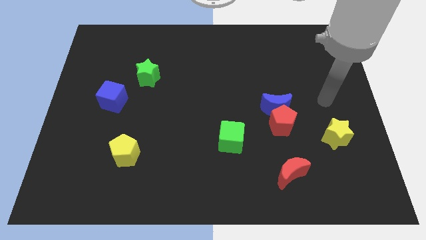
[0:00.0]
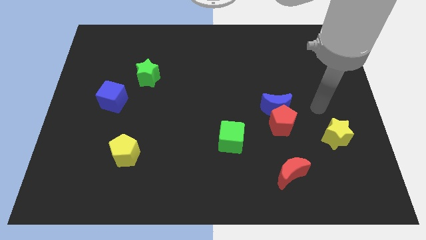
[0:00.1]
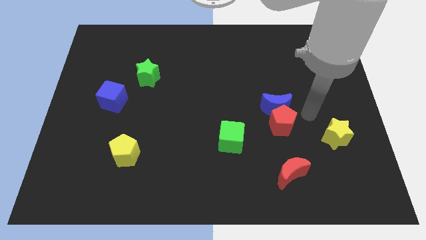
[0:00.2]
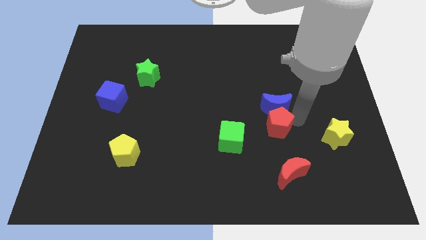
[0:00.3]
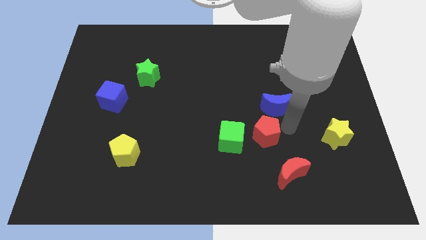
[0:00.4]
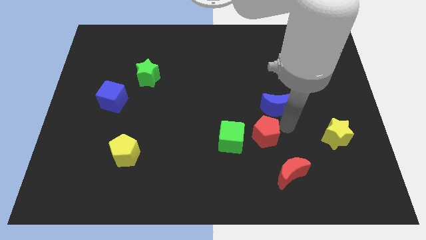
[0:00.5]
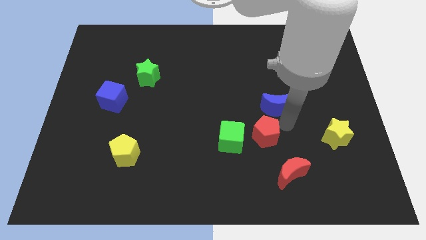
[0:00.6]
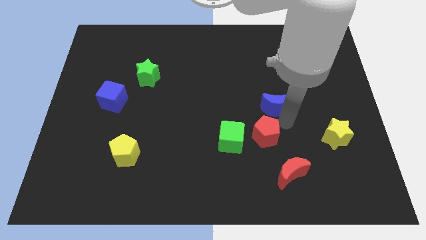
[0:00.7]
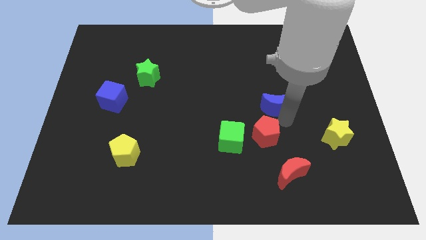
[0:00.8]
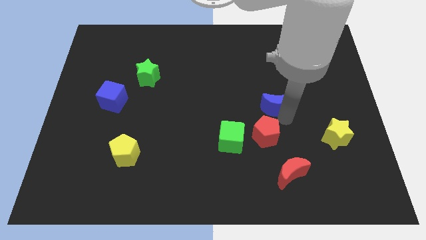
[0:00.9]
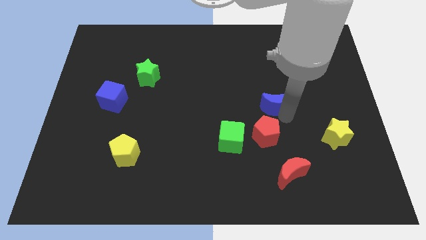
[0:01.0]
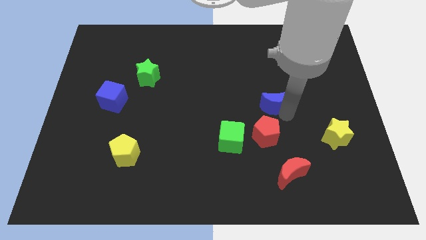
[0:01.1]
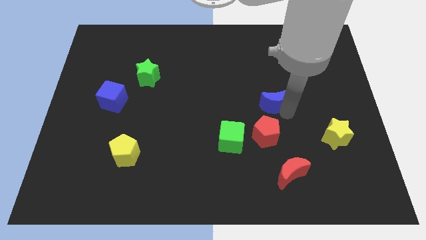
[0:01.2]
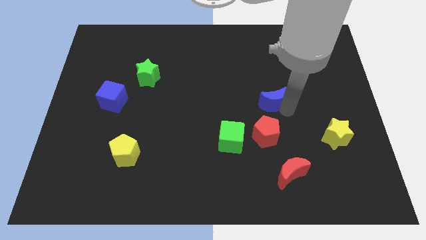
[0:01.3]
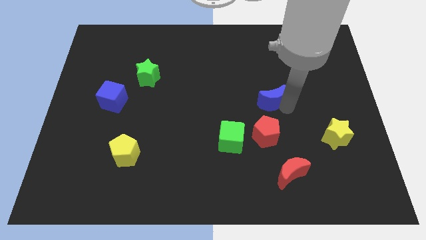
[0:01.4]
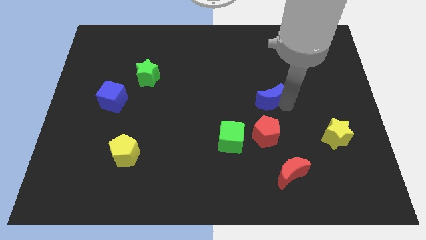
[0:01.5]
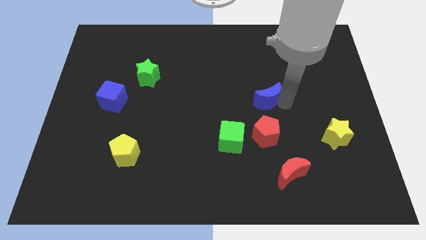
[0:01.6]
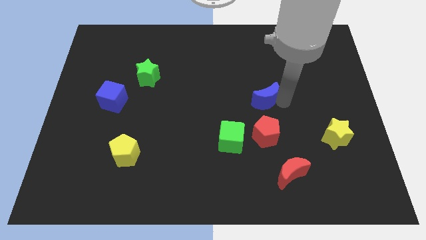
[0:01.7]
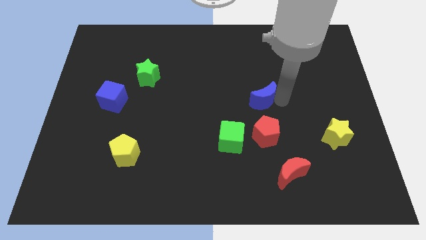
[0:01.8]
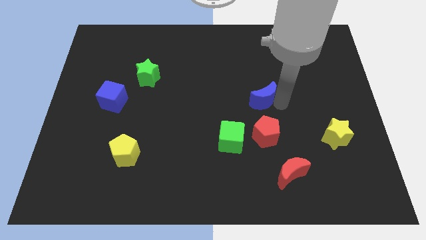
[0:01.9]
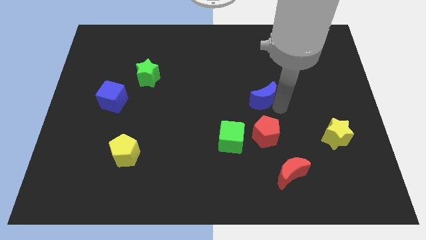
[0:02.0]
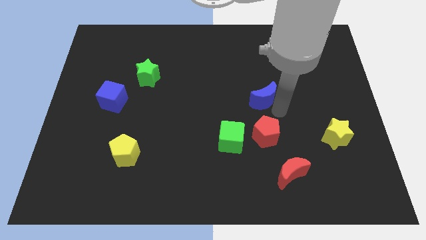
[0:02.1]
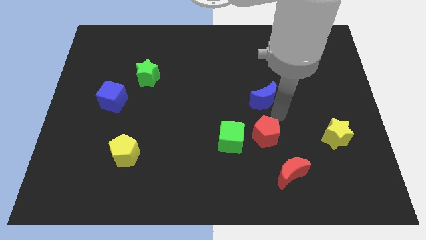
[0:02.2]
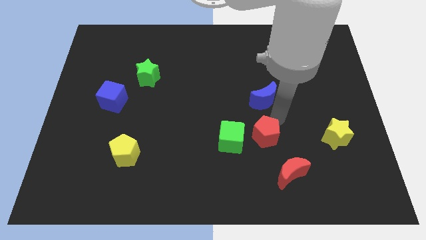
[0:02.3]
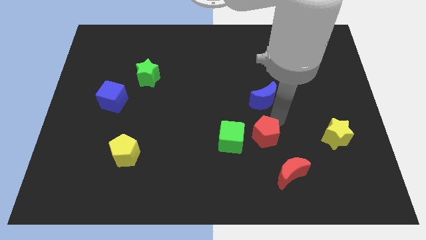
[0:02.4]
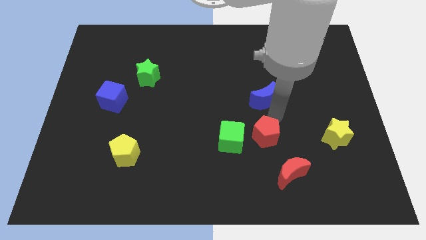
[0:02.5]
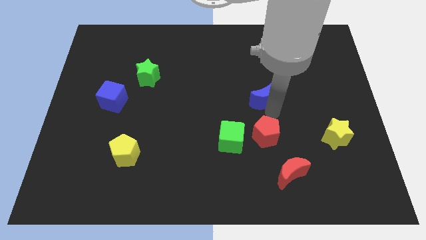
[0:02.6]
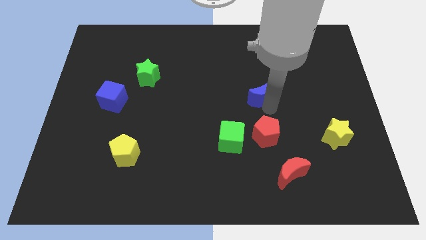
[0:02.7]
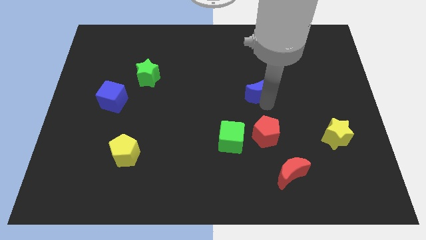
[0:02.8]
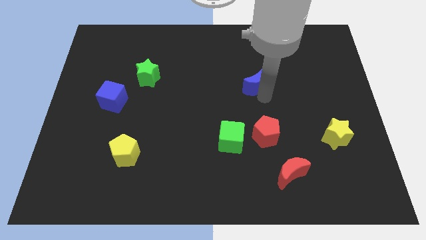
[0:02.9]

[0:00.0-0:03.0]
push the blue moon up and then left a little bit

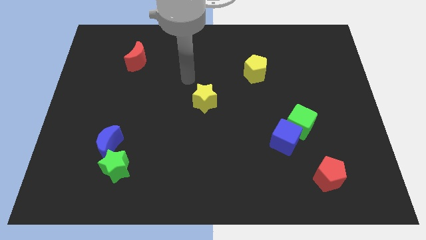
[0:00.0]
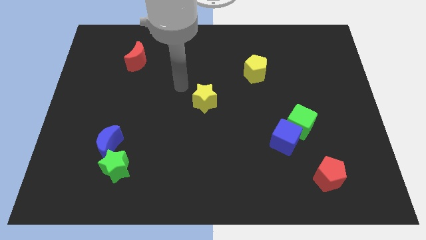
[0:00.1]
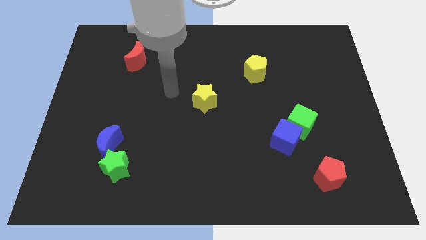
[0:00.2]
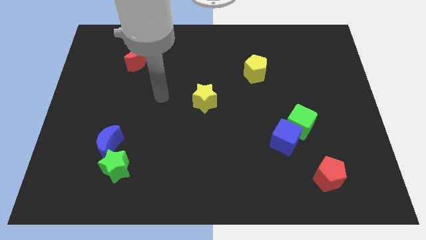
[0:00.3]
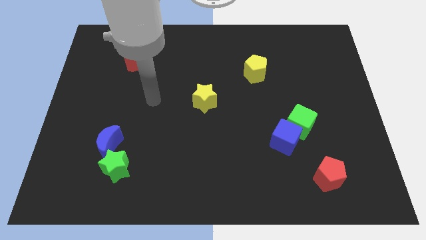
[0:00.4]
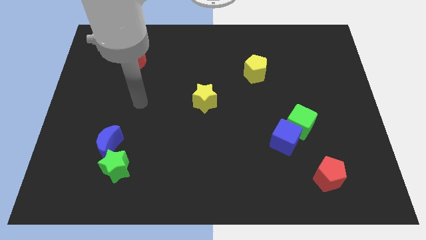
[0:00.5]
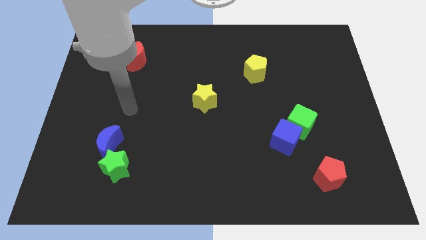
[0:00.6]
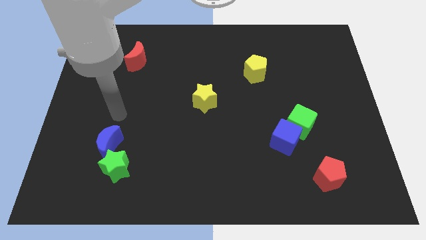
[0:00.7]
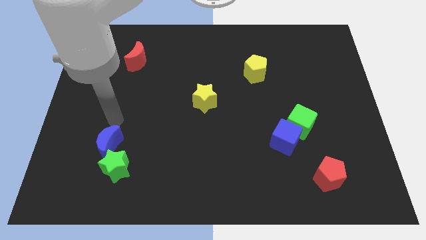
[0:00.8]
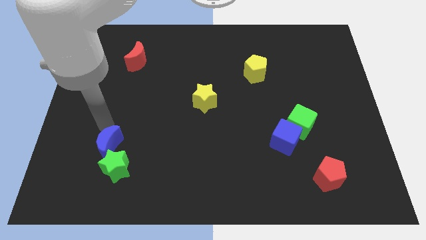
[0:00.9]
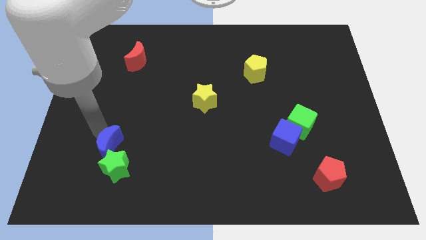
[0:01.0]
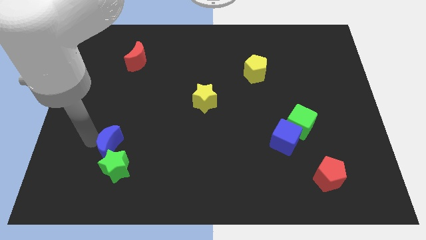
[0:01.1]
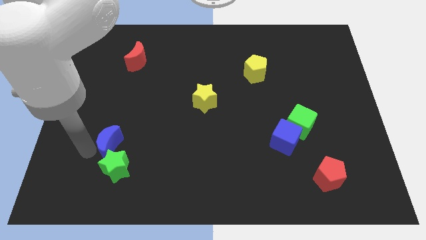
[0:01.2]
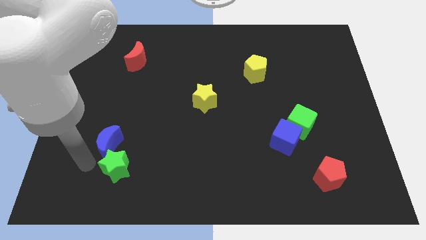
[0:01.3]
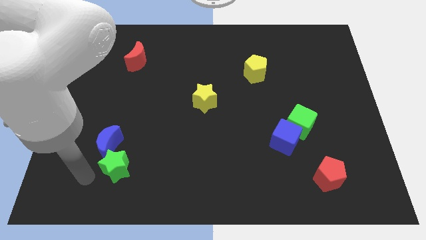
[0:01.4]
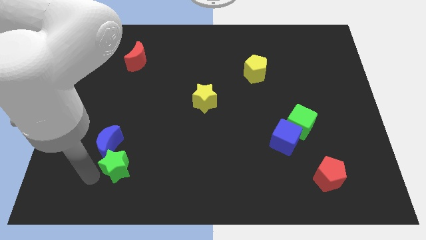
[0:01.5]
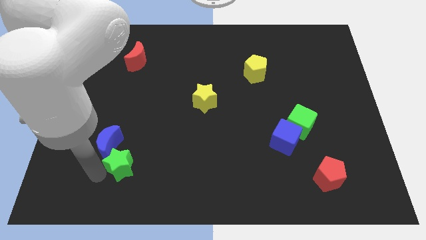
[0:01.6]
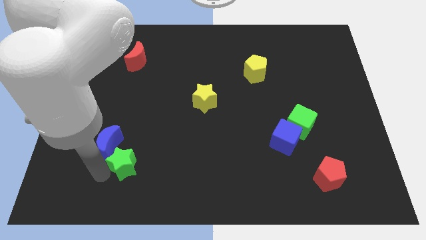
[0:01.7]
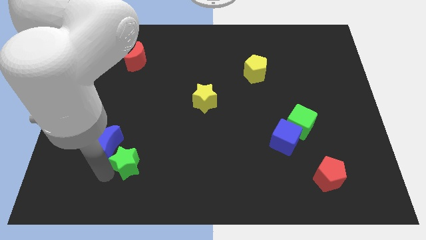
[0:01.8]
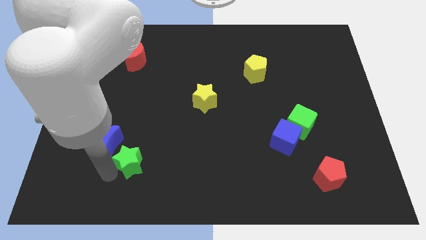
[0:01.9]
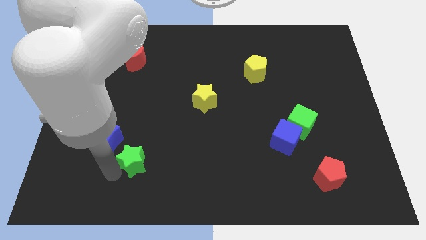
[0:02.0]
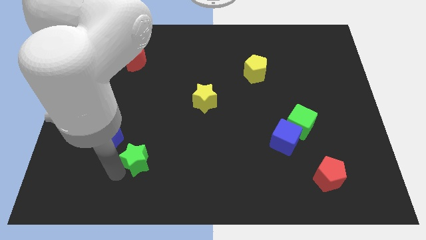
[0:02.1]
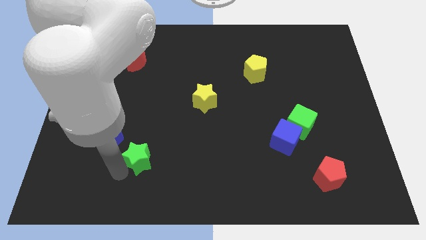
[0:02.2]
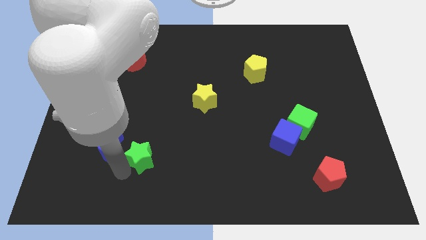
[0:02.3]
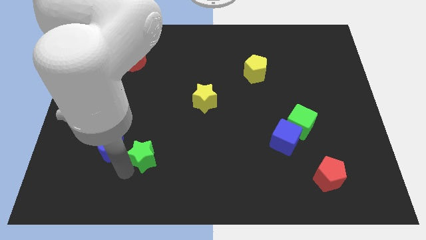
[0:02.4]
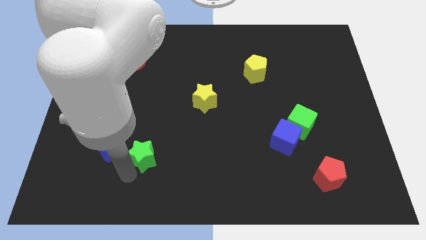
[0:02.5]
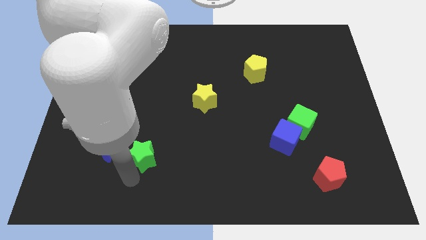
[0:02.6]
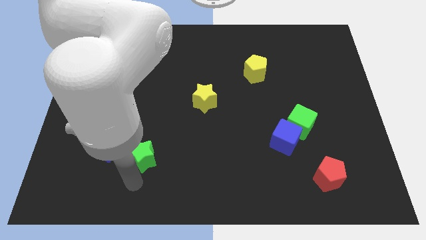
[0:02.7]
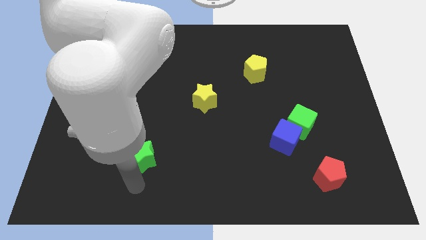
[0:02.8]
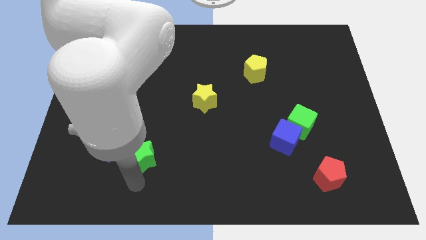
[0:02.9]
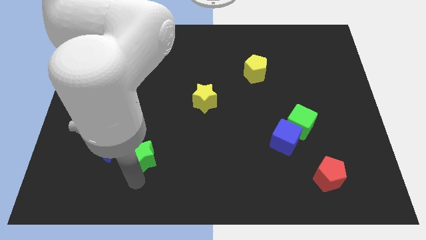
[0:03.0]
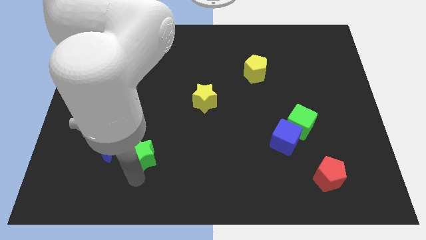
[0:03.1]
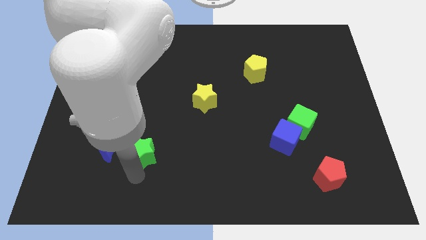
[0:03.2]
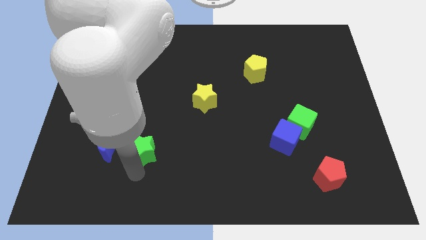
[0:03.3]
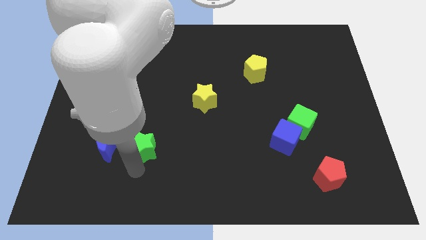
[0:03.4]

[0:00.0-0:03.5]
push the green star up and to the right diagonally a little

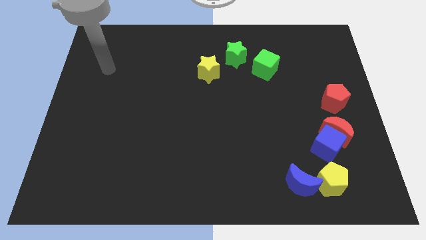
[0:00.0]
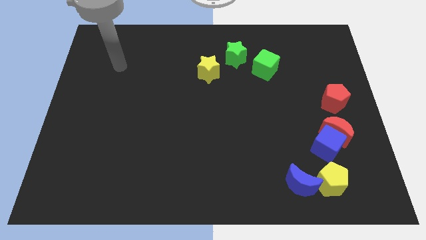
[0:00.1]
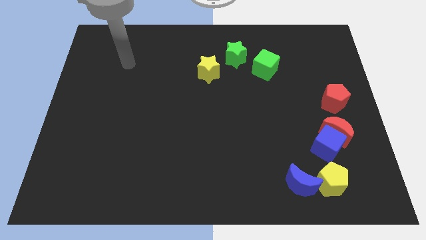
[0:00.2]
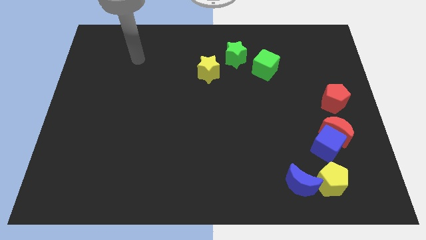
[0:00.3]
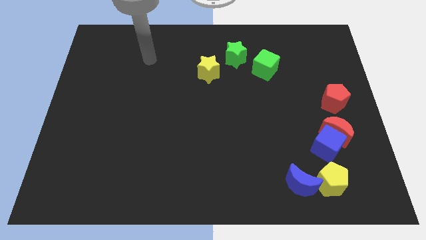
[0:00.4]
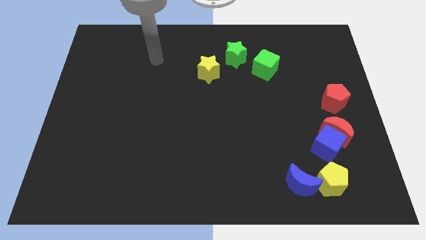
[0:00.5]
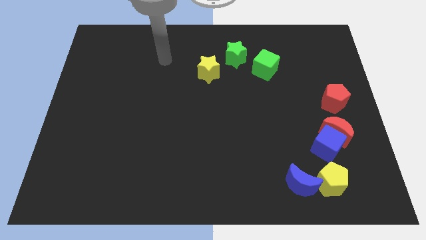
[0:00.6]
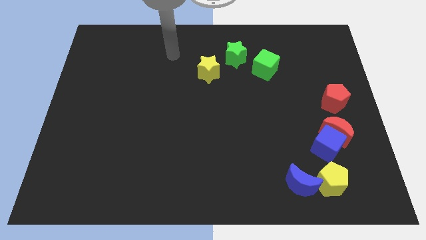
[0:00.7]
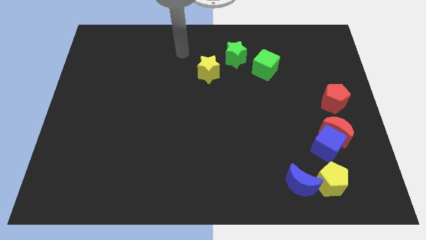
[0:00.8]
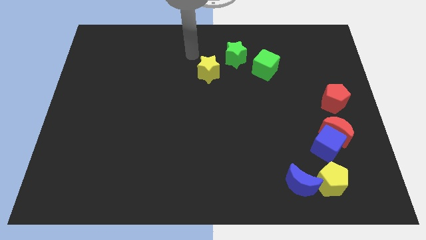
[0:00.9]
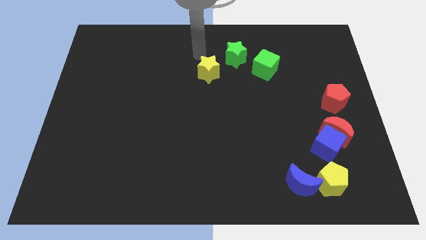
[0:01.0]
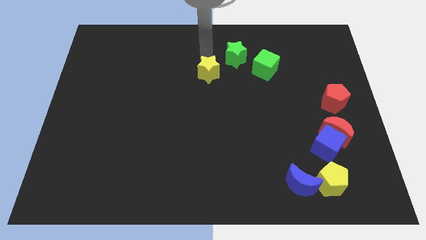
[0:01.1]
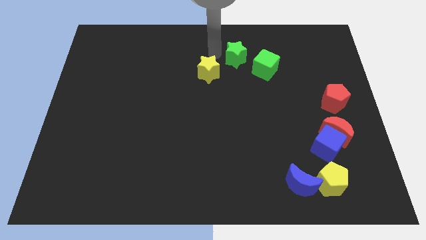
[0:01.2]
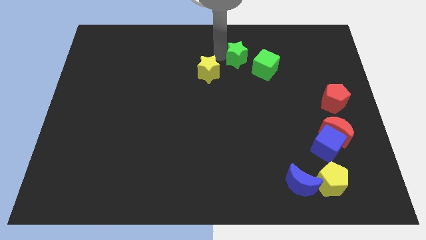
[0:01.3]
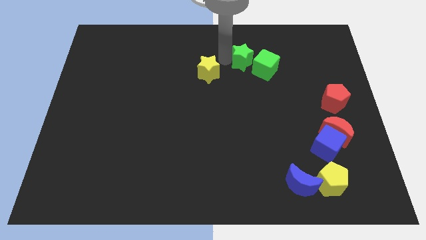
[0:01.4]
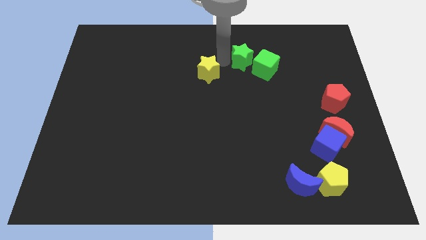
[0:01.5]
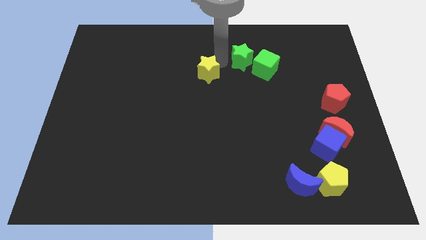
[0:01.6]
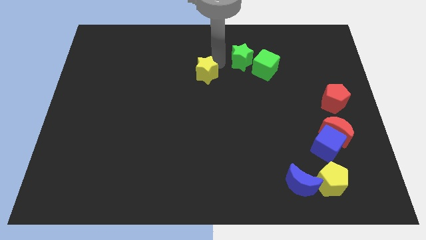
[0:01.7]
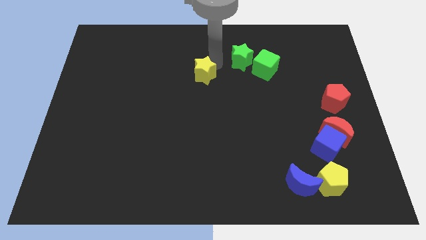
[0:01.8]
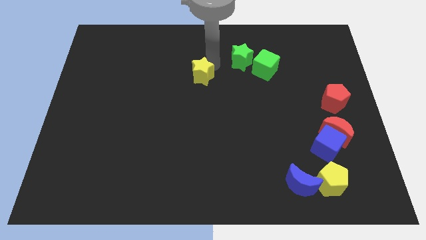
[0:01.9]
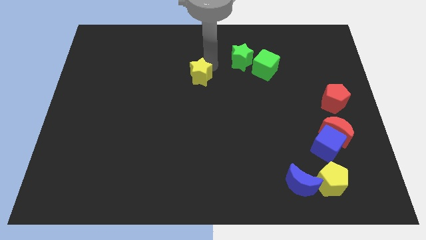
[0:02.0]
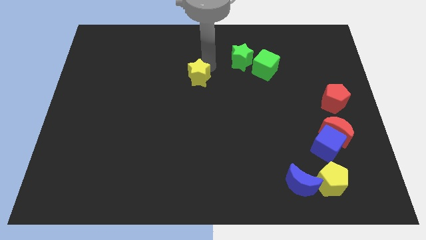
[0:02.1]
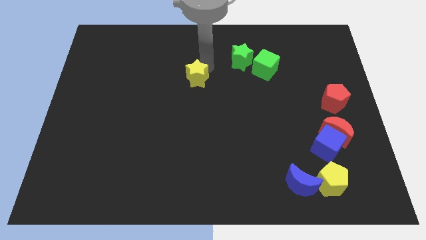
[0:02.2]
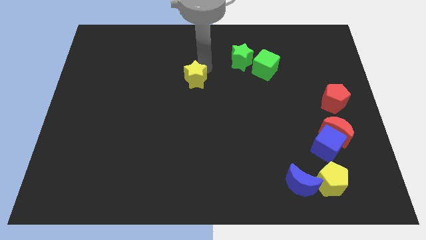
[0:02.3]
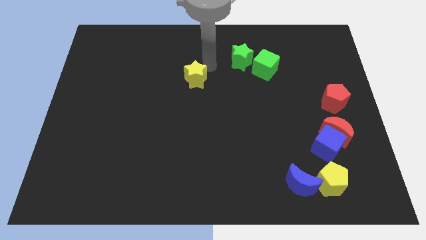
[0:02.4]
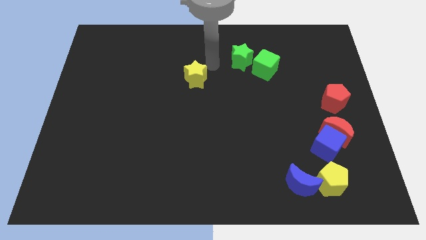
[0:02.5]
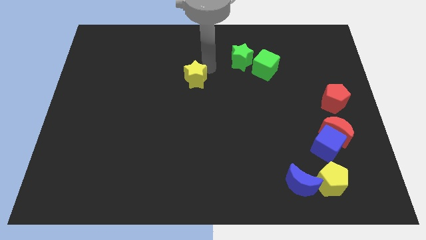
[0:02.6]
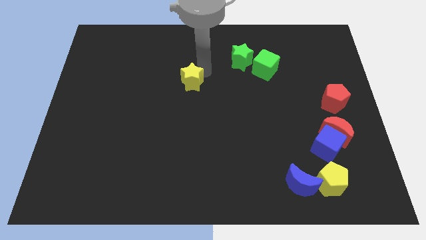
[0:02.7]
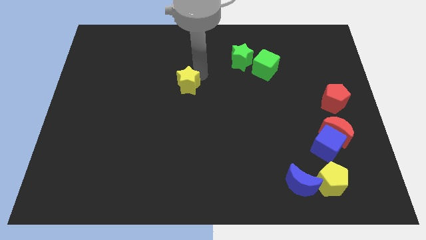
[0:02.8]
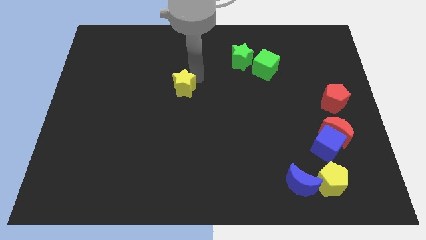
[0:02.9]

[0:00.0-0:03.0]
slide the yellow star slightly diagonally down and to the left
